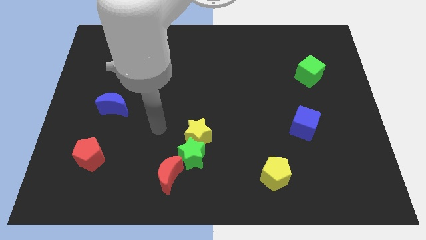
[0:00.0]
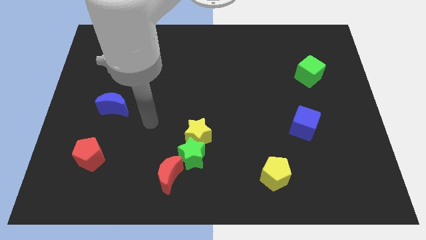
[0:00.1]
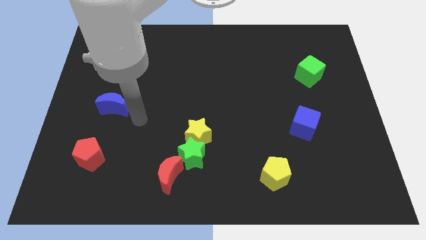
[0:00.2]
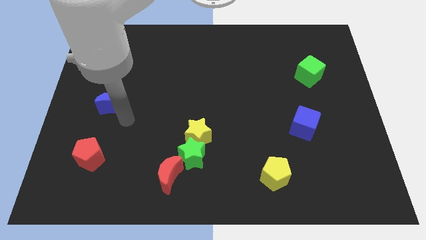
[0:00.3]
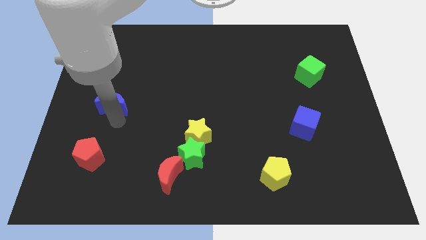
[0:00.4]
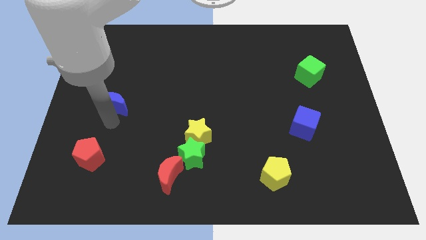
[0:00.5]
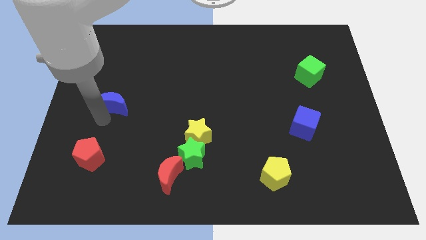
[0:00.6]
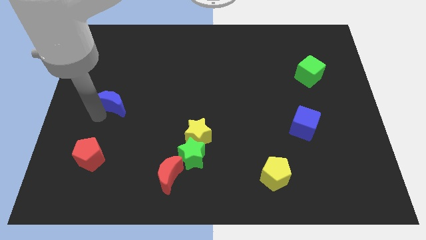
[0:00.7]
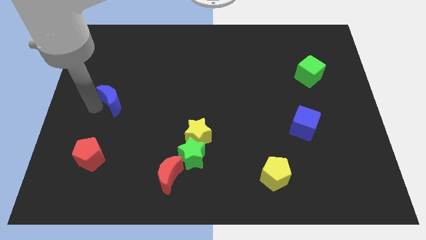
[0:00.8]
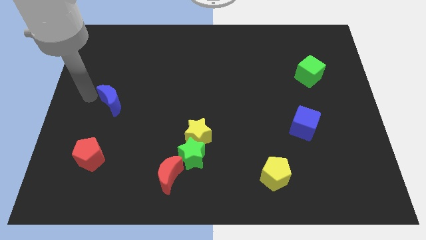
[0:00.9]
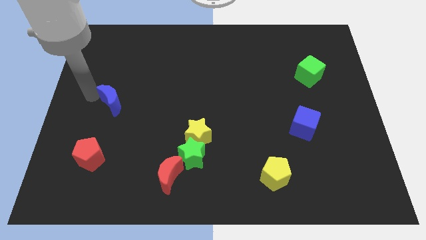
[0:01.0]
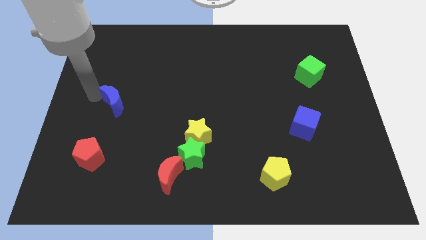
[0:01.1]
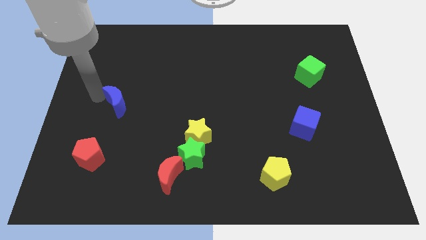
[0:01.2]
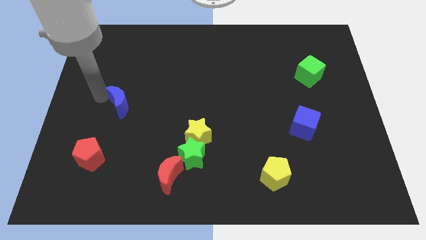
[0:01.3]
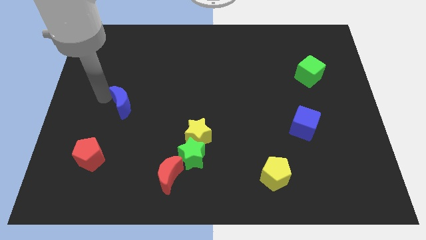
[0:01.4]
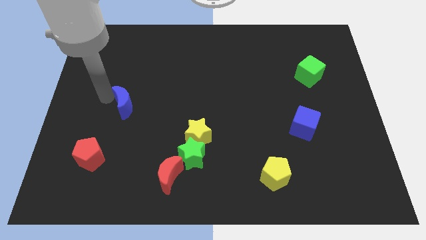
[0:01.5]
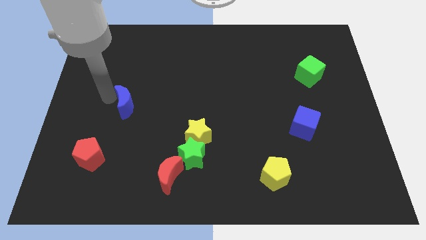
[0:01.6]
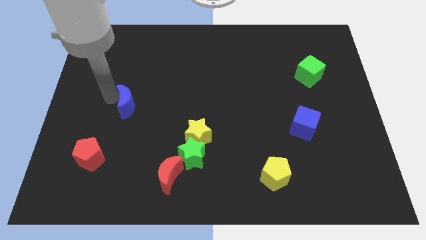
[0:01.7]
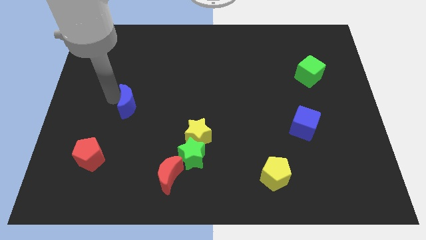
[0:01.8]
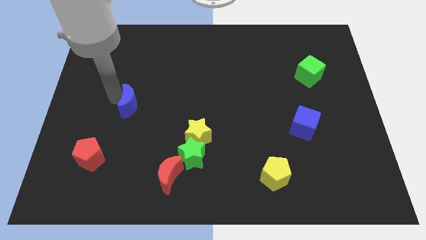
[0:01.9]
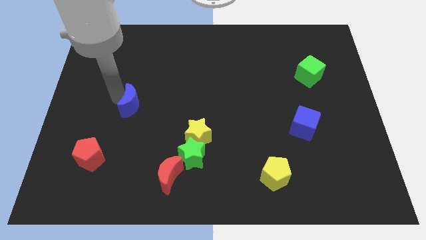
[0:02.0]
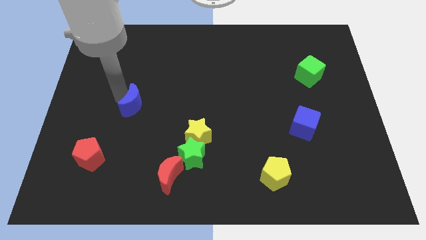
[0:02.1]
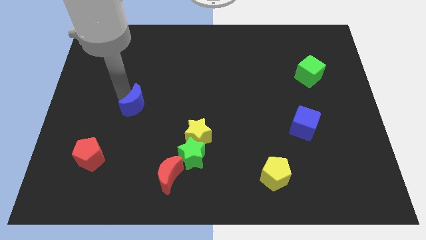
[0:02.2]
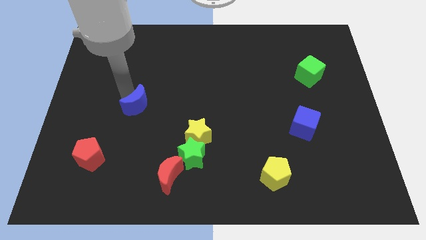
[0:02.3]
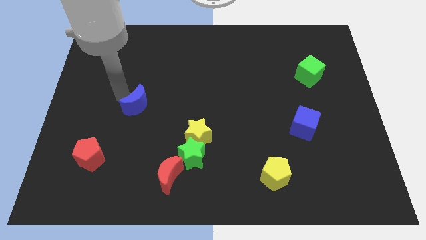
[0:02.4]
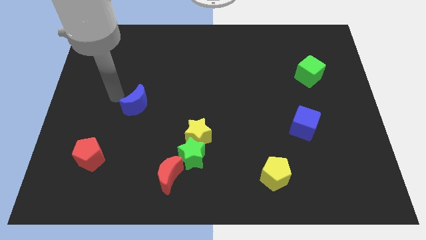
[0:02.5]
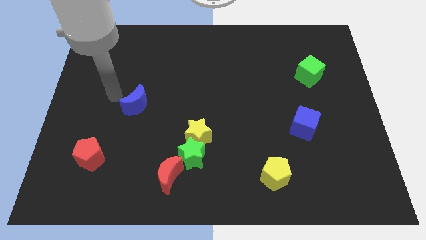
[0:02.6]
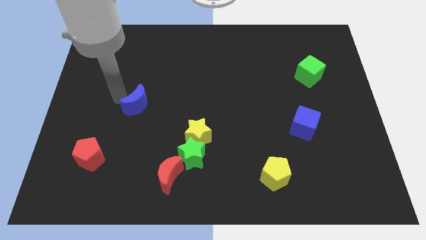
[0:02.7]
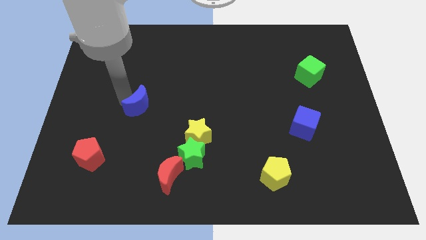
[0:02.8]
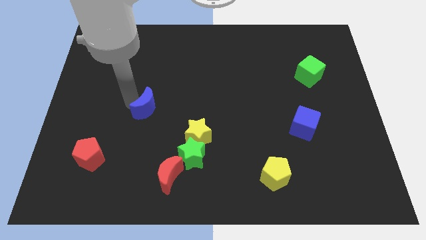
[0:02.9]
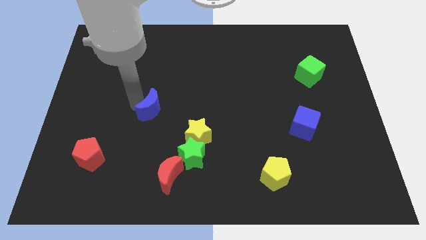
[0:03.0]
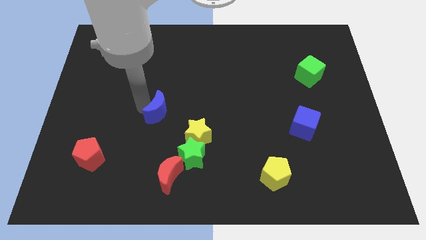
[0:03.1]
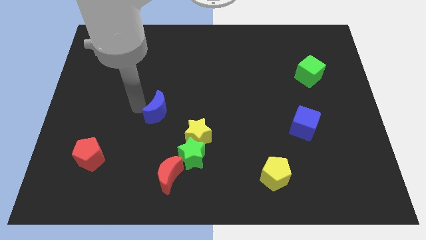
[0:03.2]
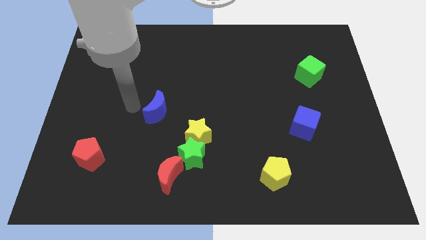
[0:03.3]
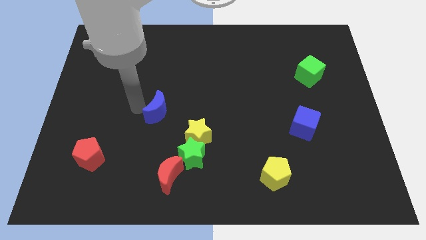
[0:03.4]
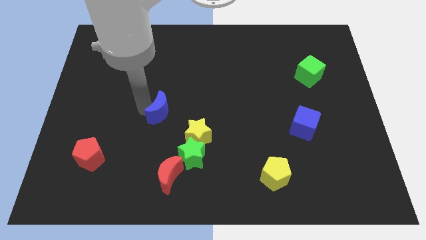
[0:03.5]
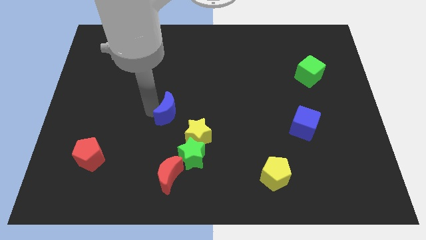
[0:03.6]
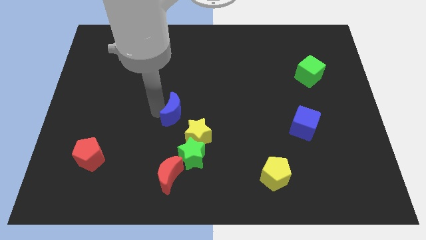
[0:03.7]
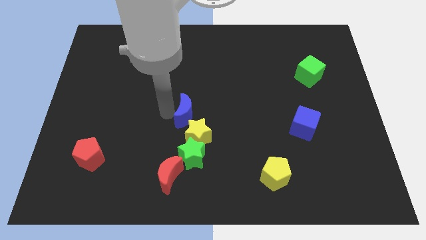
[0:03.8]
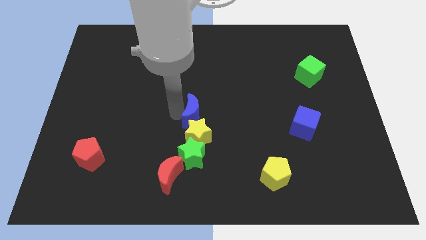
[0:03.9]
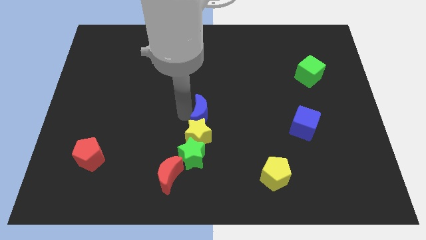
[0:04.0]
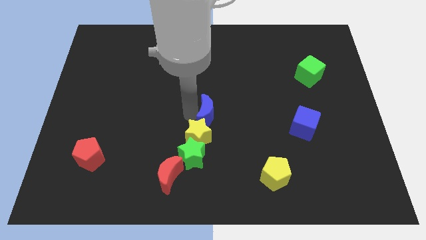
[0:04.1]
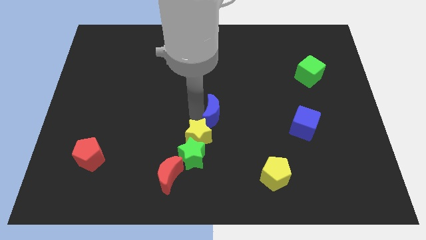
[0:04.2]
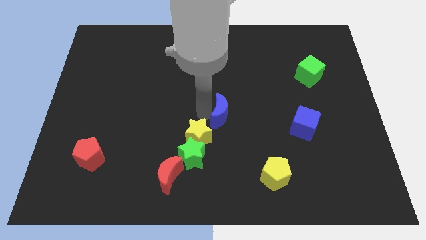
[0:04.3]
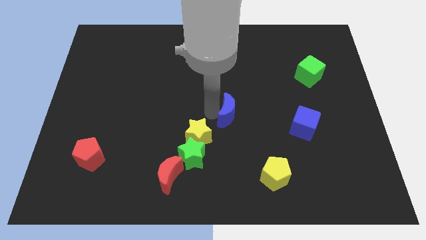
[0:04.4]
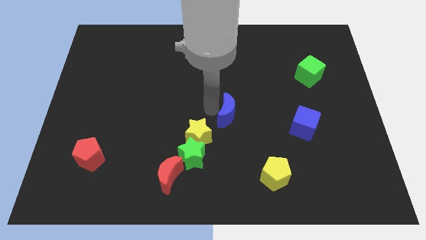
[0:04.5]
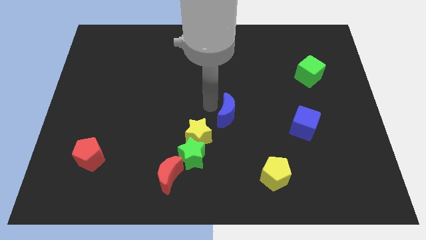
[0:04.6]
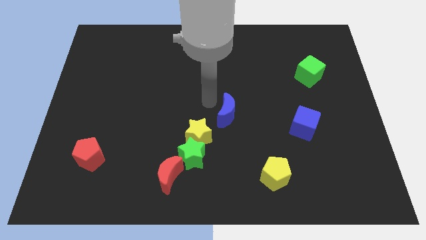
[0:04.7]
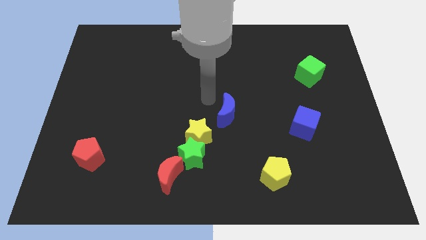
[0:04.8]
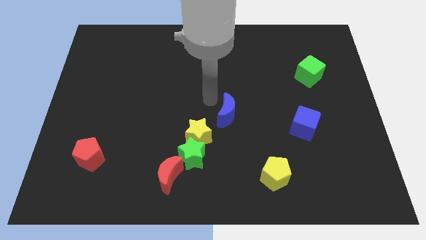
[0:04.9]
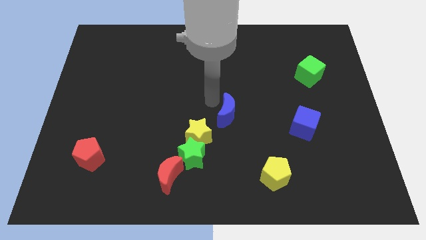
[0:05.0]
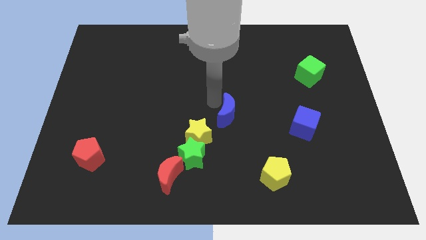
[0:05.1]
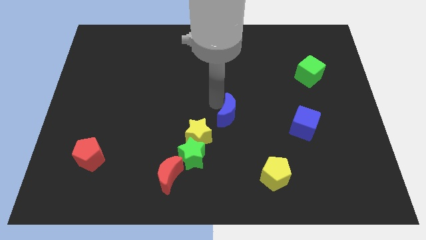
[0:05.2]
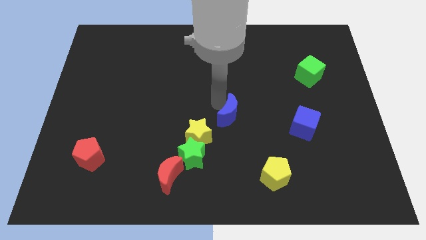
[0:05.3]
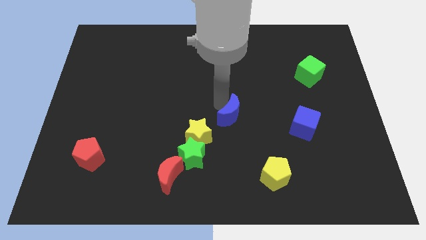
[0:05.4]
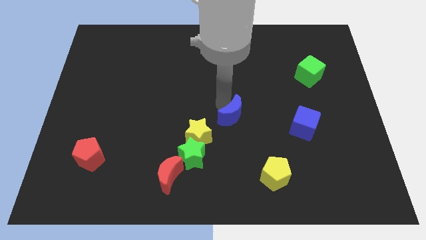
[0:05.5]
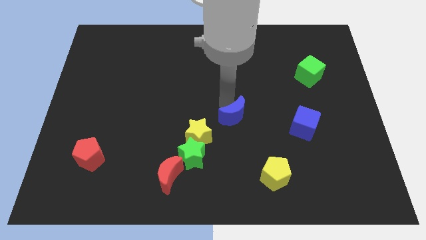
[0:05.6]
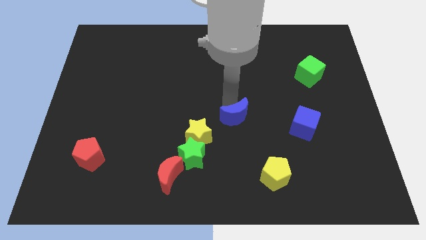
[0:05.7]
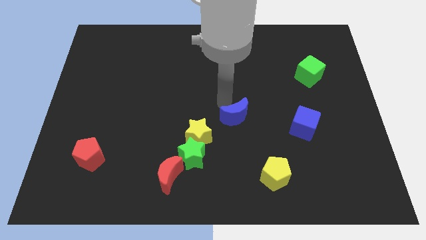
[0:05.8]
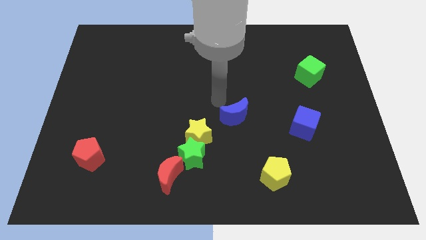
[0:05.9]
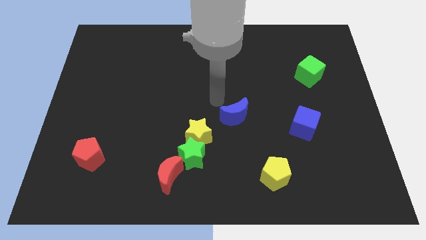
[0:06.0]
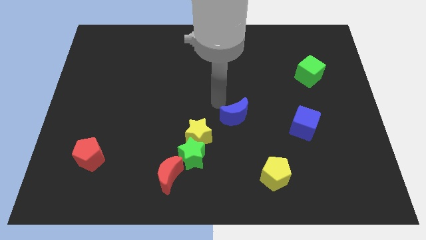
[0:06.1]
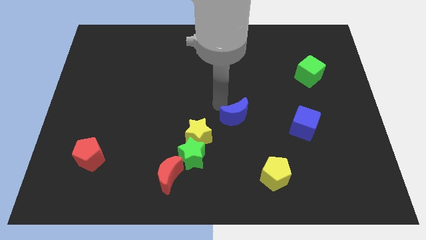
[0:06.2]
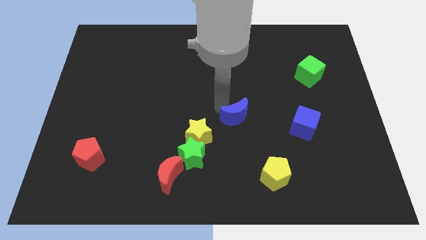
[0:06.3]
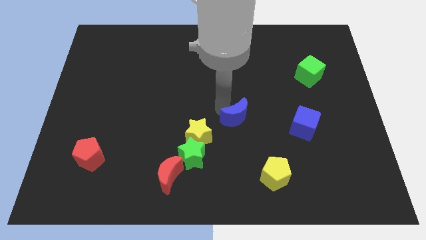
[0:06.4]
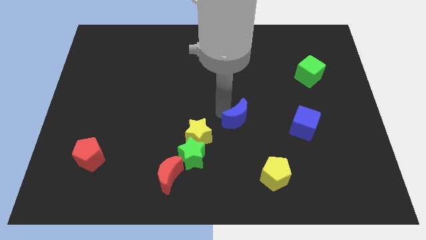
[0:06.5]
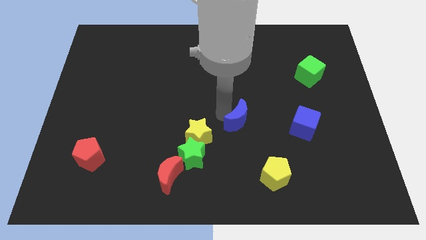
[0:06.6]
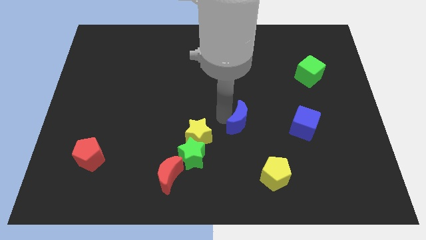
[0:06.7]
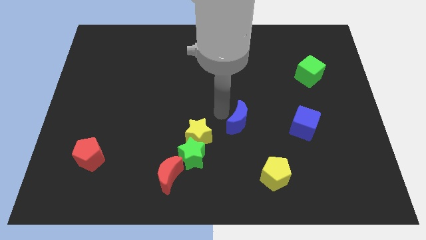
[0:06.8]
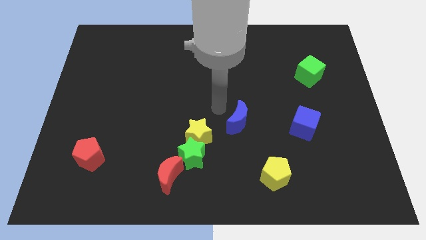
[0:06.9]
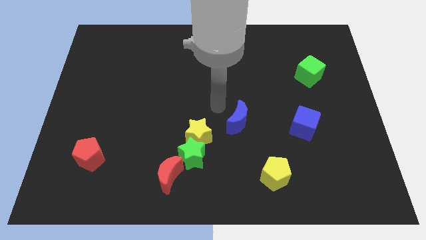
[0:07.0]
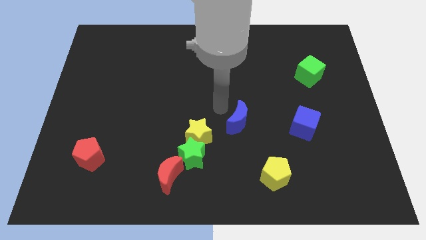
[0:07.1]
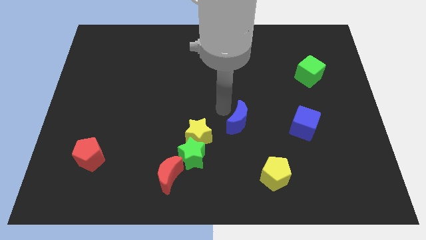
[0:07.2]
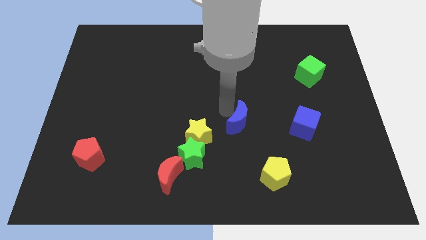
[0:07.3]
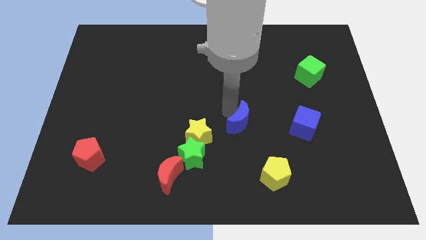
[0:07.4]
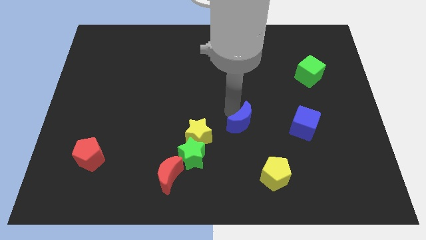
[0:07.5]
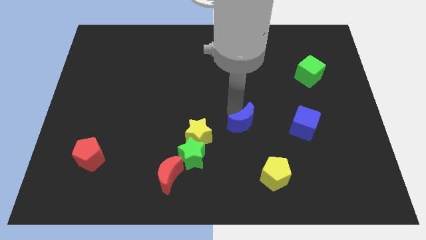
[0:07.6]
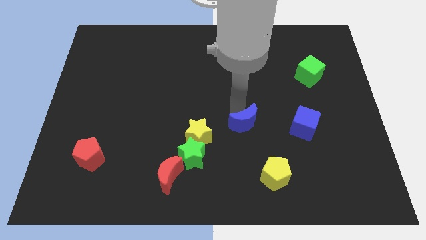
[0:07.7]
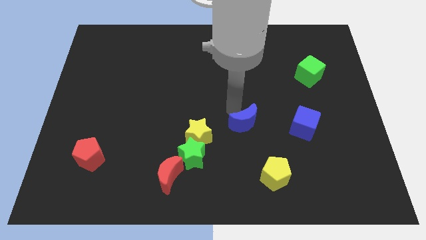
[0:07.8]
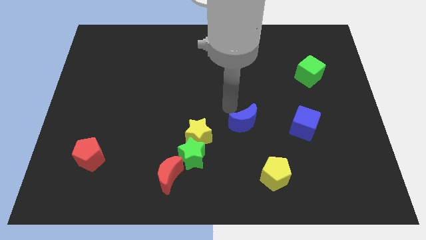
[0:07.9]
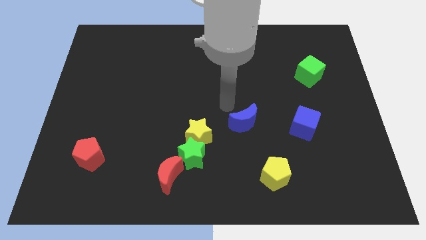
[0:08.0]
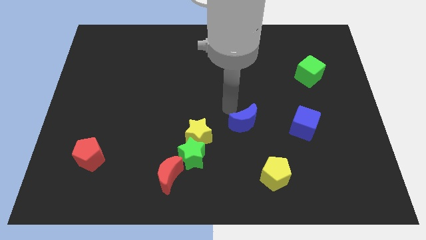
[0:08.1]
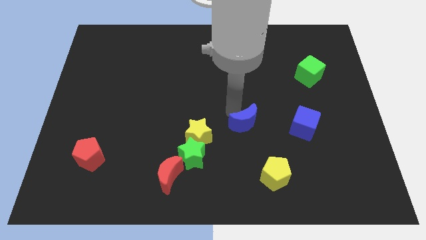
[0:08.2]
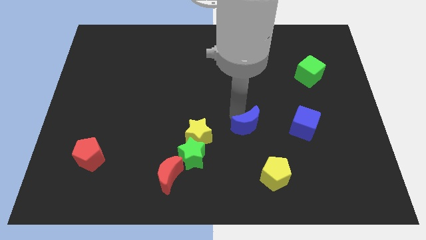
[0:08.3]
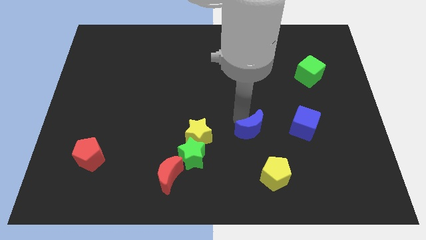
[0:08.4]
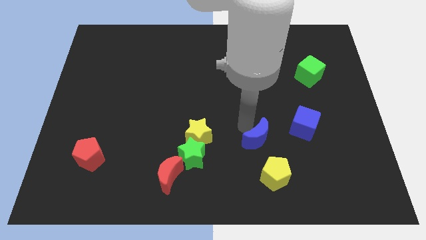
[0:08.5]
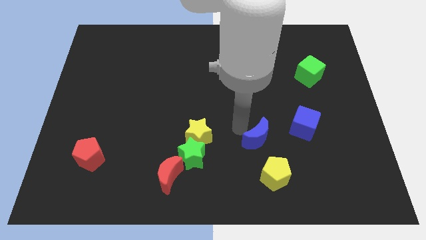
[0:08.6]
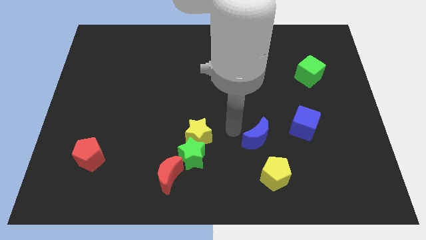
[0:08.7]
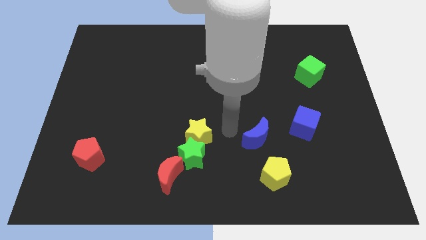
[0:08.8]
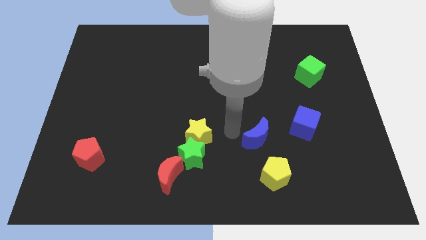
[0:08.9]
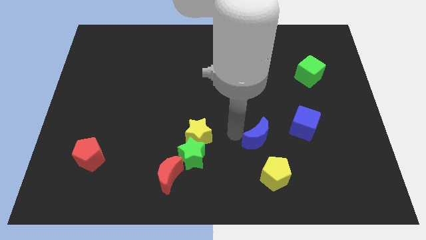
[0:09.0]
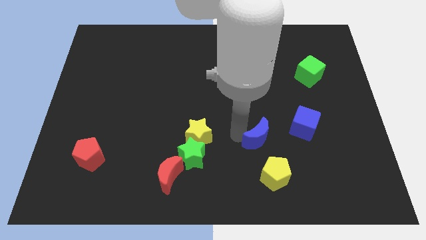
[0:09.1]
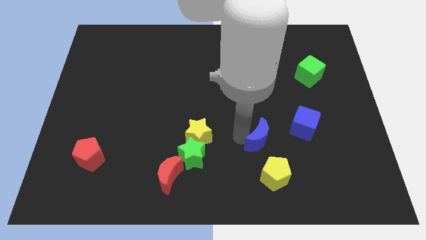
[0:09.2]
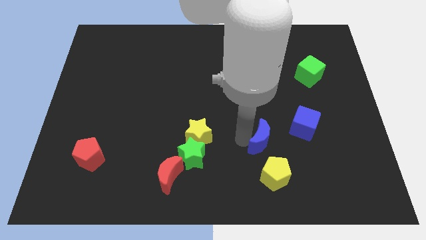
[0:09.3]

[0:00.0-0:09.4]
put the blue moon to the bottom left of the blue cube
